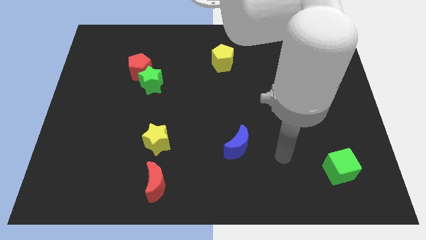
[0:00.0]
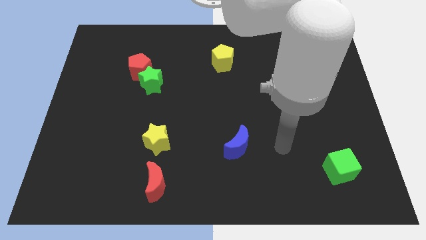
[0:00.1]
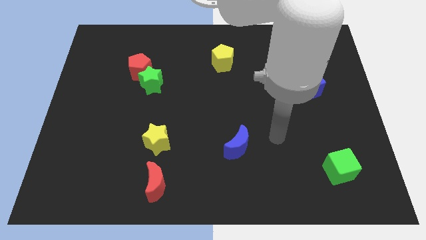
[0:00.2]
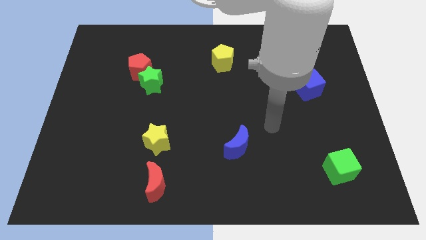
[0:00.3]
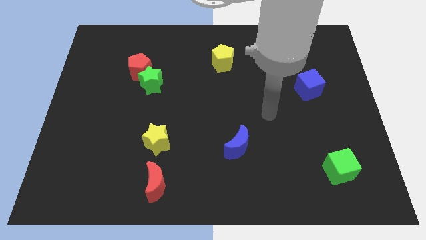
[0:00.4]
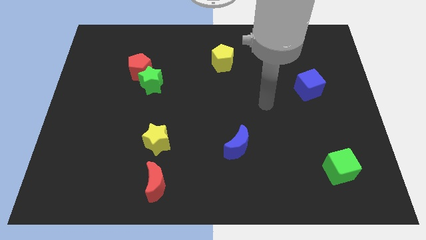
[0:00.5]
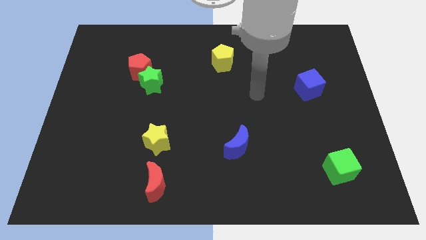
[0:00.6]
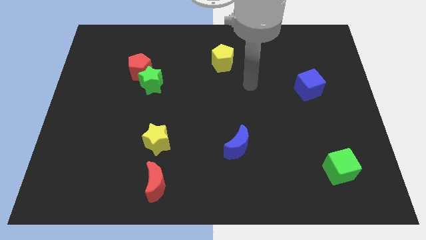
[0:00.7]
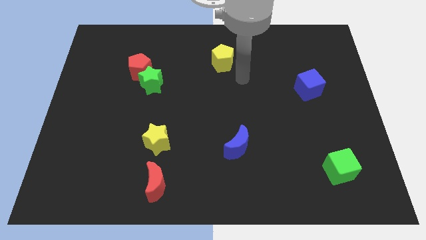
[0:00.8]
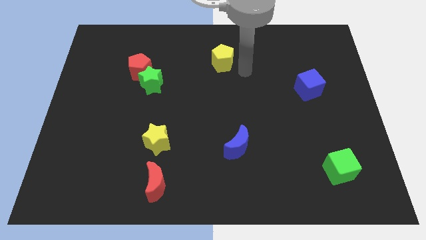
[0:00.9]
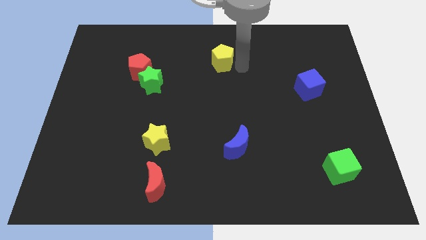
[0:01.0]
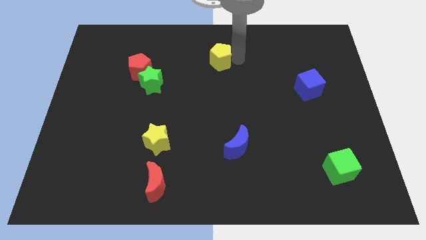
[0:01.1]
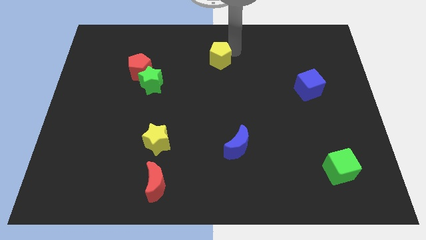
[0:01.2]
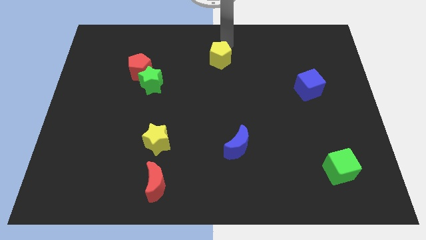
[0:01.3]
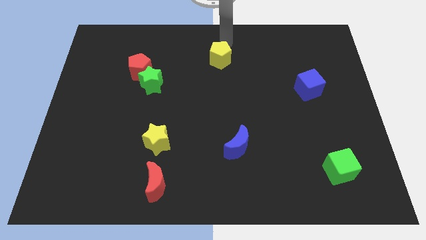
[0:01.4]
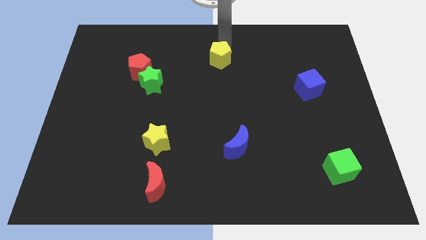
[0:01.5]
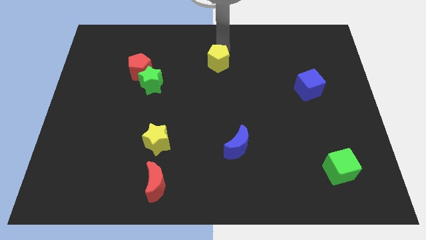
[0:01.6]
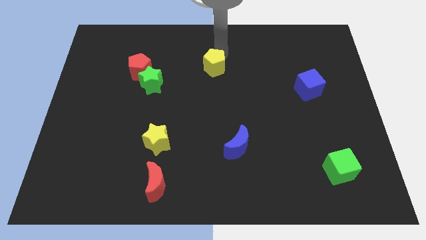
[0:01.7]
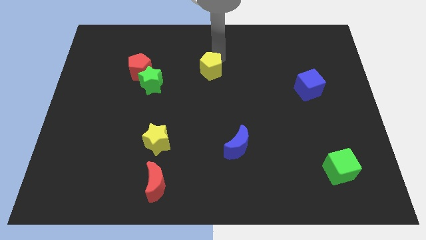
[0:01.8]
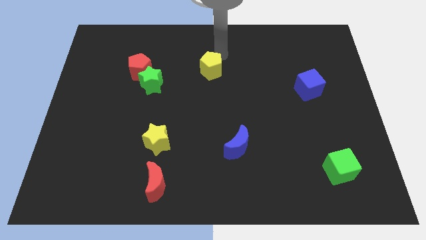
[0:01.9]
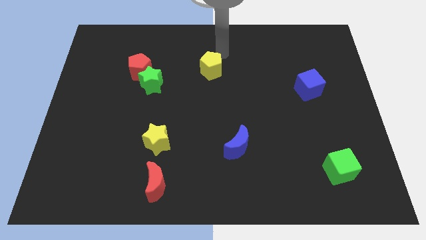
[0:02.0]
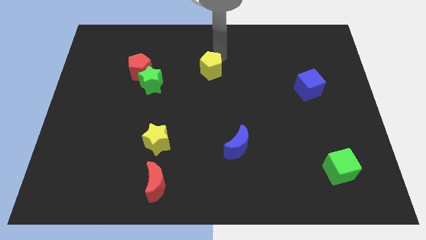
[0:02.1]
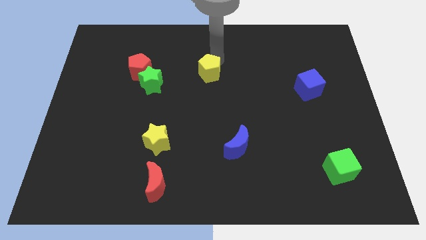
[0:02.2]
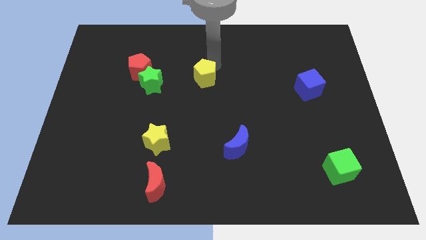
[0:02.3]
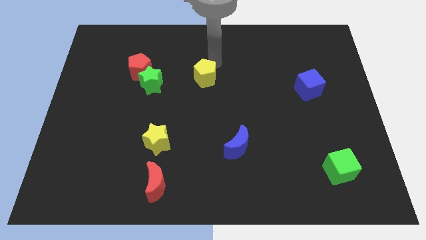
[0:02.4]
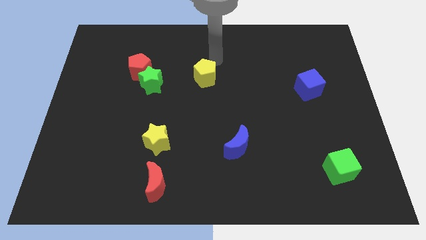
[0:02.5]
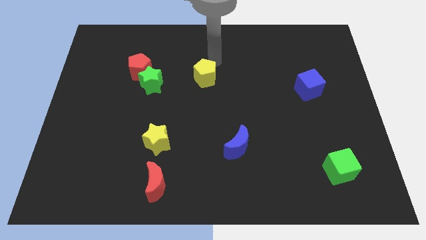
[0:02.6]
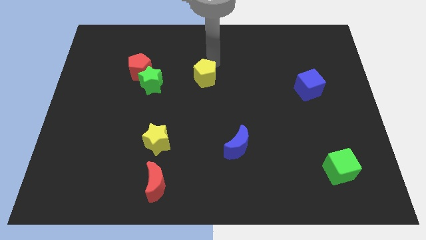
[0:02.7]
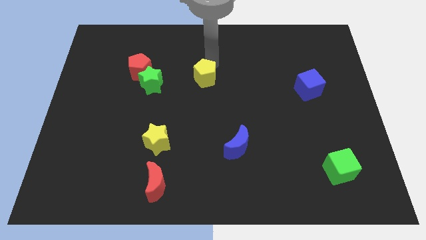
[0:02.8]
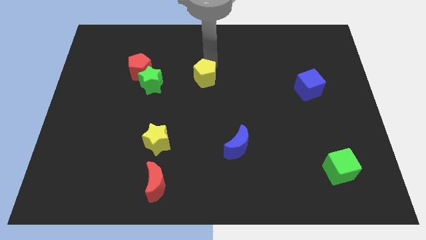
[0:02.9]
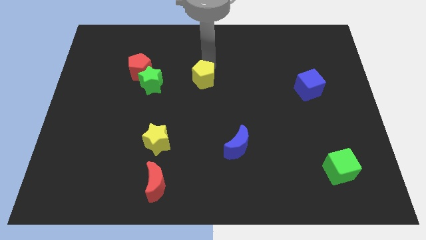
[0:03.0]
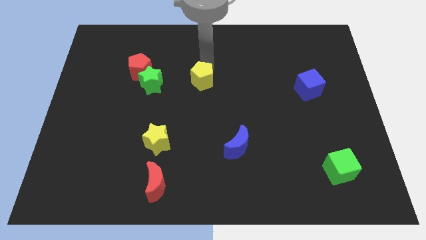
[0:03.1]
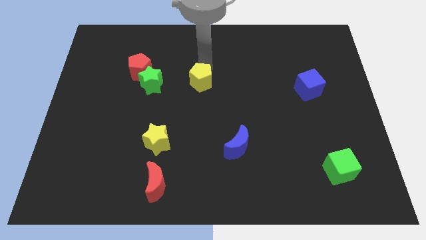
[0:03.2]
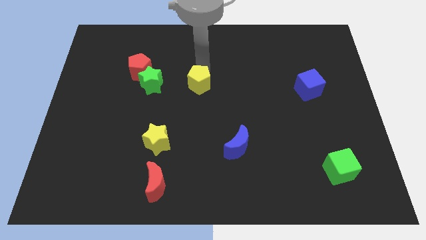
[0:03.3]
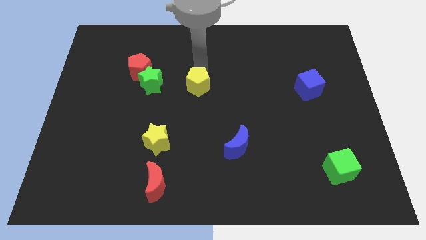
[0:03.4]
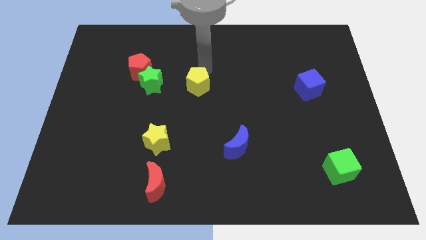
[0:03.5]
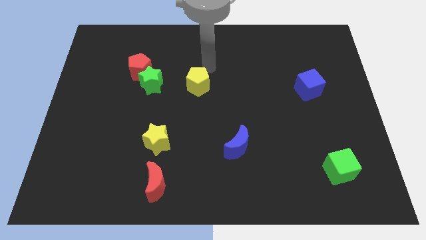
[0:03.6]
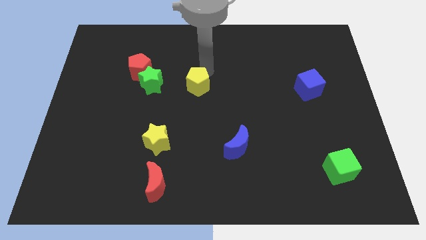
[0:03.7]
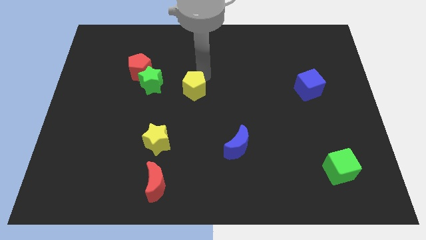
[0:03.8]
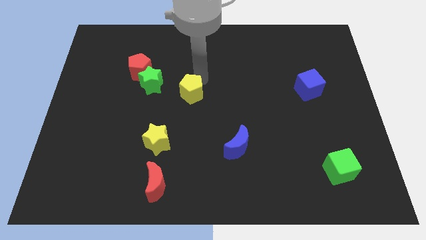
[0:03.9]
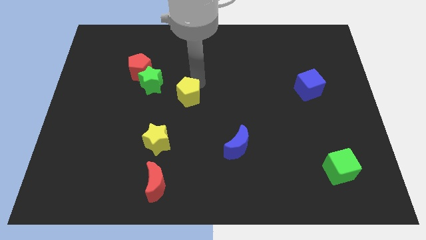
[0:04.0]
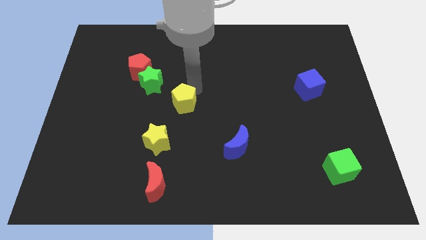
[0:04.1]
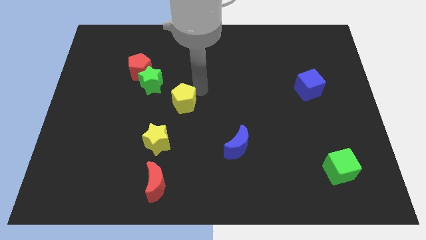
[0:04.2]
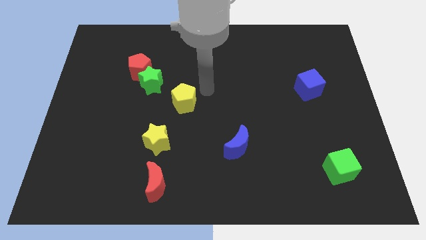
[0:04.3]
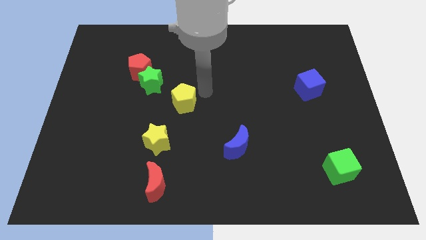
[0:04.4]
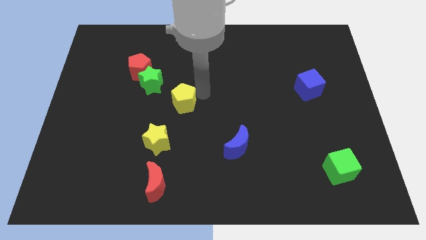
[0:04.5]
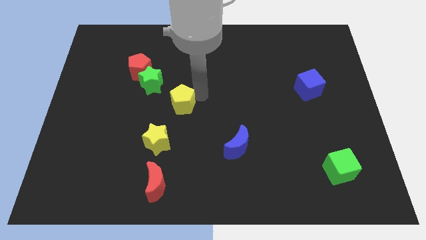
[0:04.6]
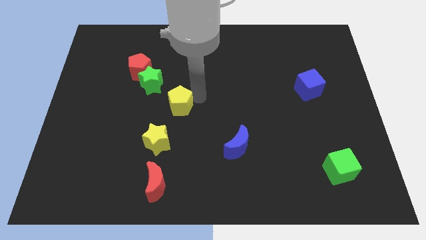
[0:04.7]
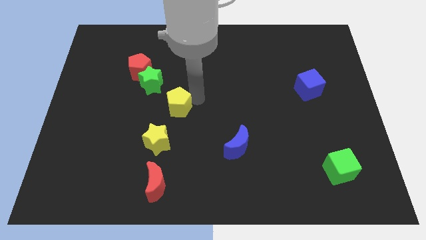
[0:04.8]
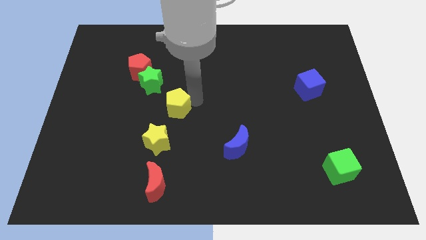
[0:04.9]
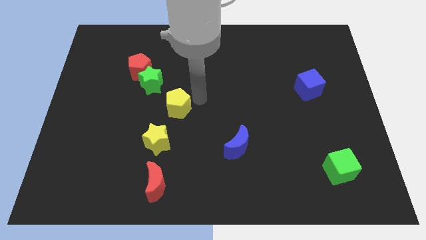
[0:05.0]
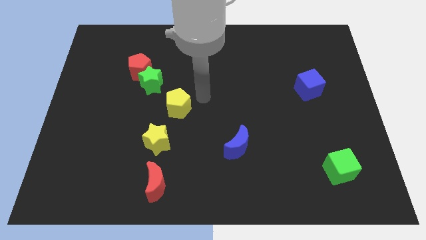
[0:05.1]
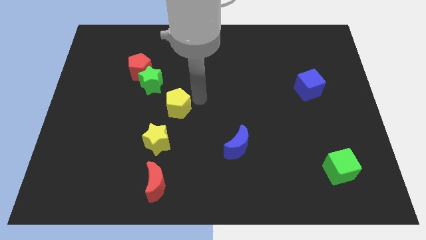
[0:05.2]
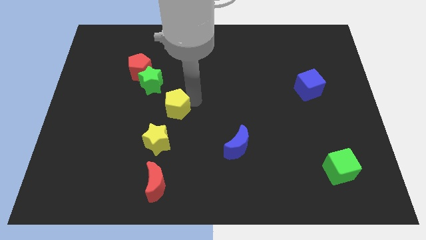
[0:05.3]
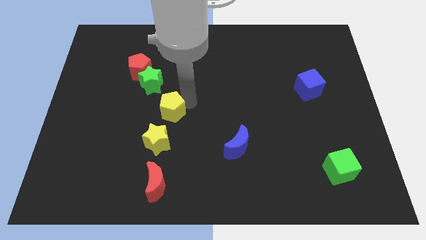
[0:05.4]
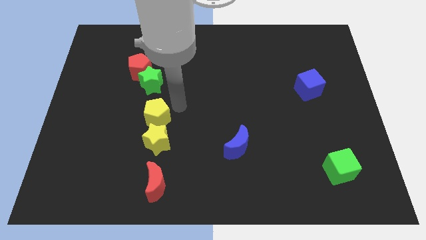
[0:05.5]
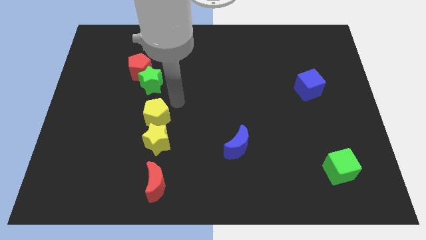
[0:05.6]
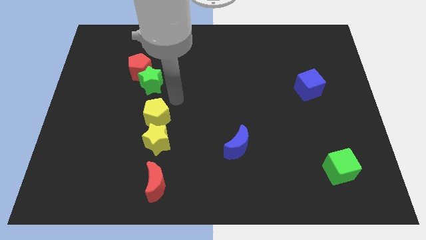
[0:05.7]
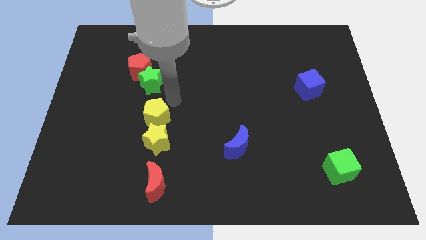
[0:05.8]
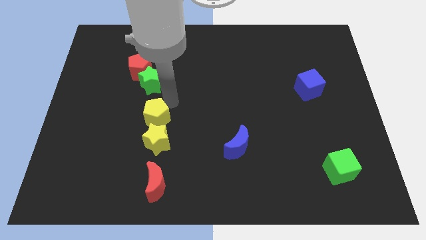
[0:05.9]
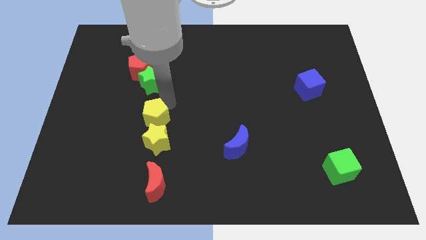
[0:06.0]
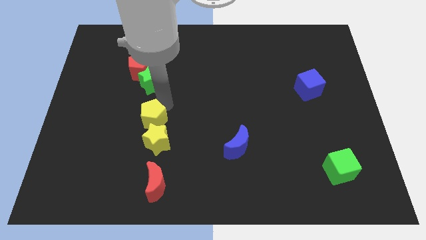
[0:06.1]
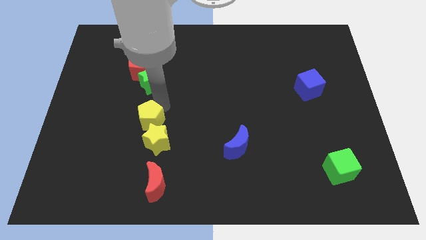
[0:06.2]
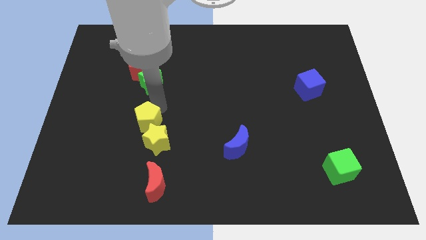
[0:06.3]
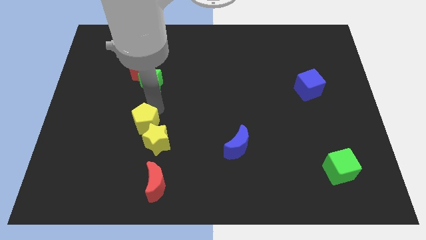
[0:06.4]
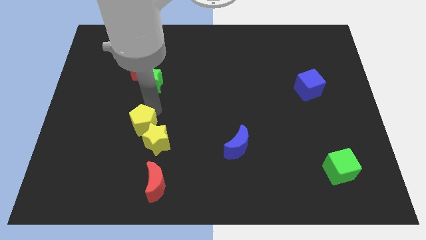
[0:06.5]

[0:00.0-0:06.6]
push the yellow pentagon just left of the yellow star

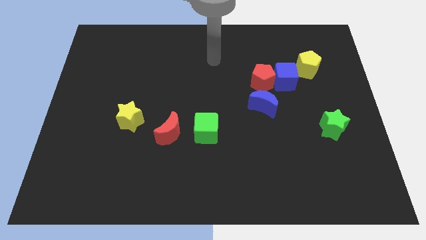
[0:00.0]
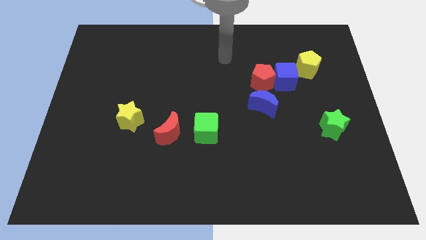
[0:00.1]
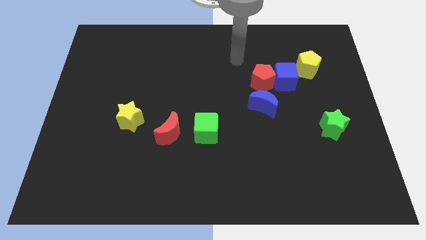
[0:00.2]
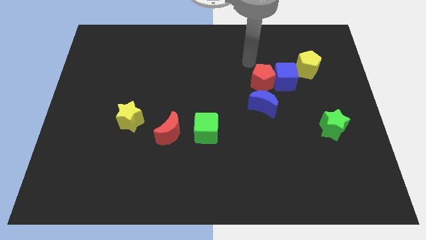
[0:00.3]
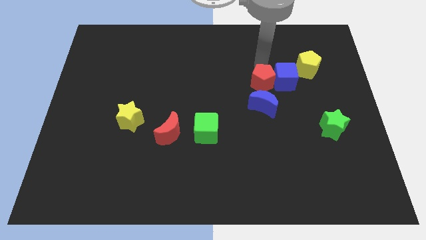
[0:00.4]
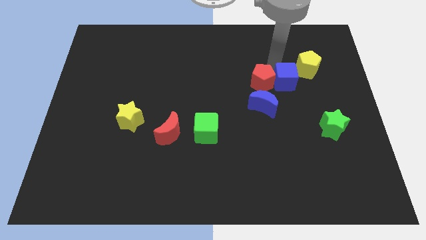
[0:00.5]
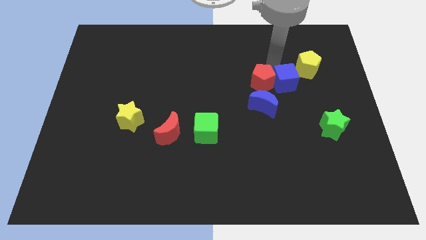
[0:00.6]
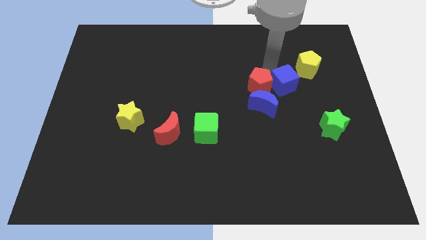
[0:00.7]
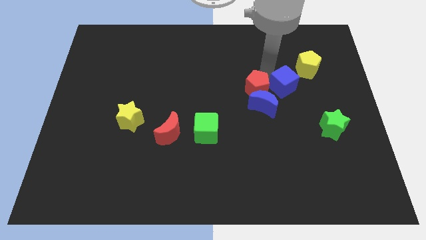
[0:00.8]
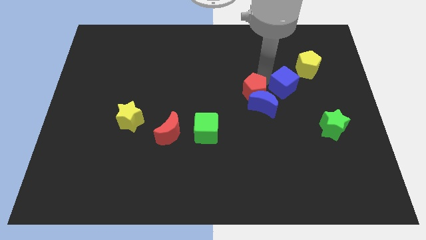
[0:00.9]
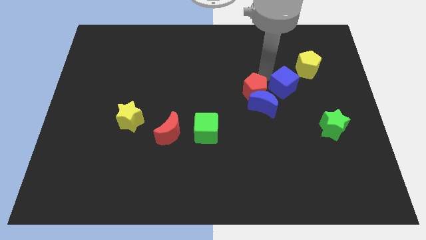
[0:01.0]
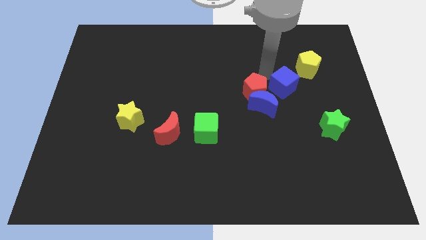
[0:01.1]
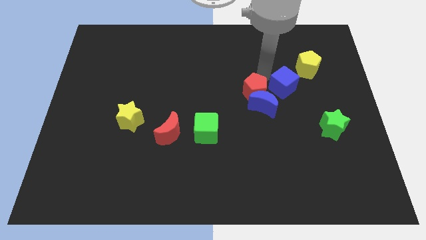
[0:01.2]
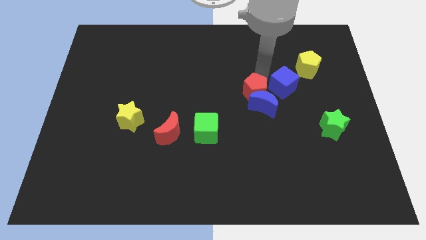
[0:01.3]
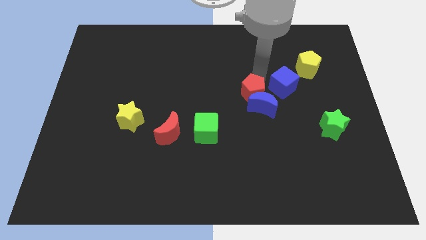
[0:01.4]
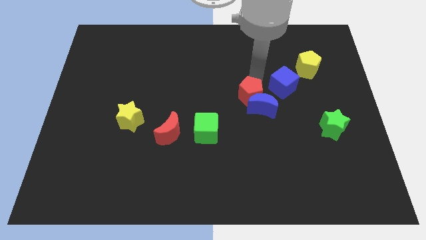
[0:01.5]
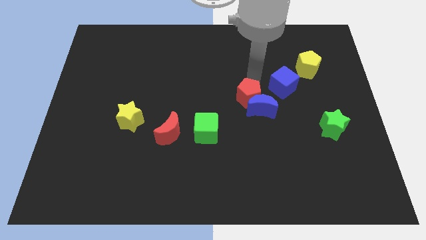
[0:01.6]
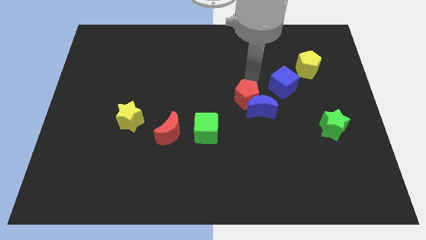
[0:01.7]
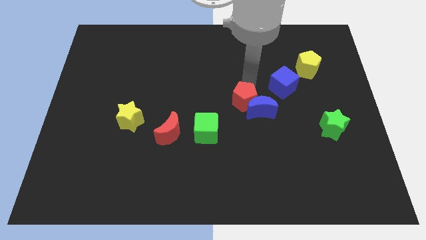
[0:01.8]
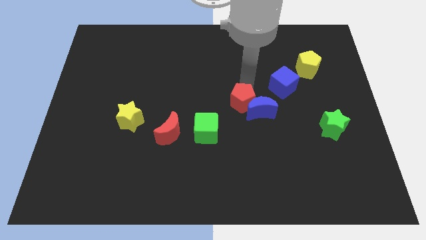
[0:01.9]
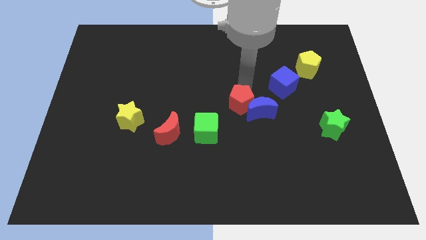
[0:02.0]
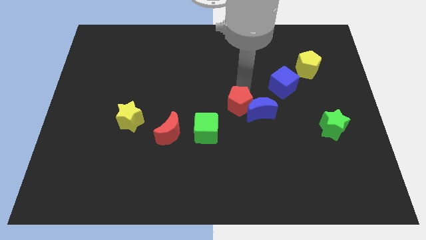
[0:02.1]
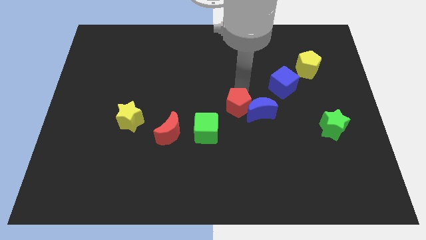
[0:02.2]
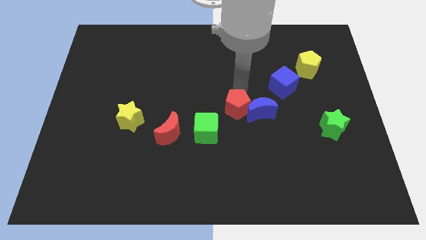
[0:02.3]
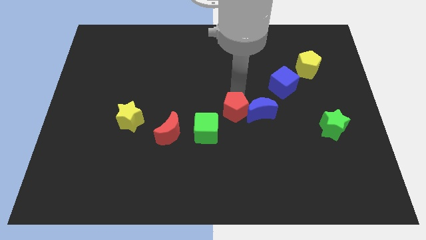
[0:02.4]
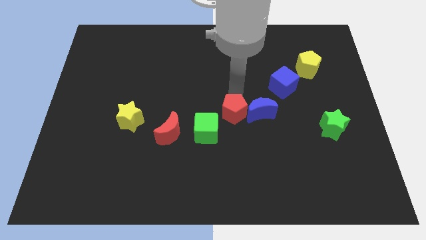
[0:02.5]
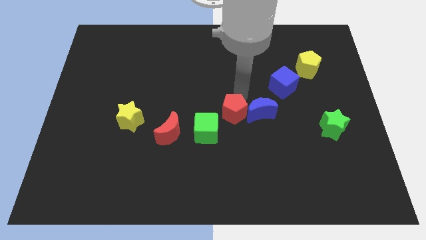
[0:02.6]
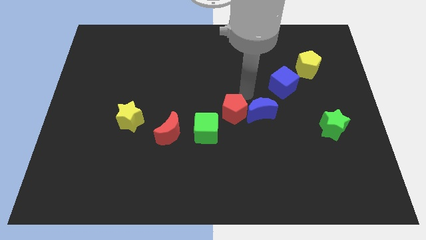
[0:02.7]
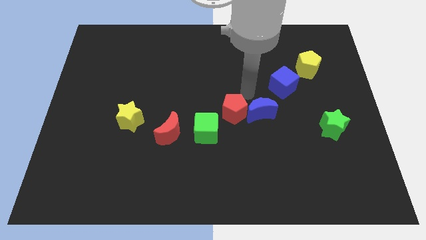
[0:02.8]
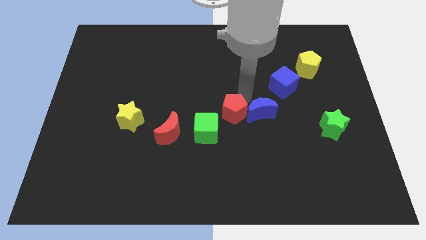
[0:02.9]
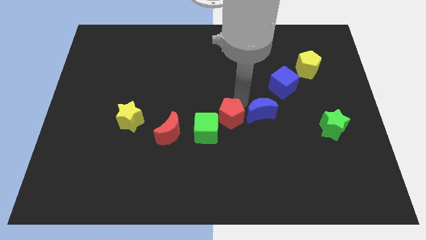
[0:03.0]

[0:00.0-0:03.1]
move the red pentagon to the right side of the red moon
